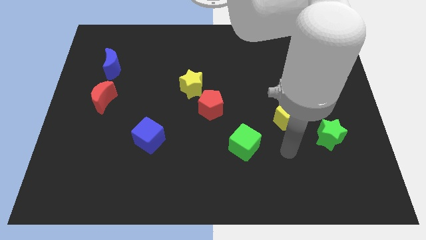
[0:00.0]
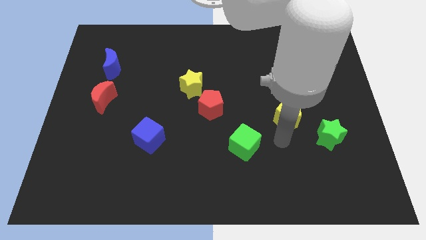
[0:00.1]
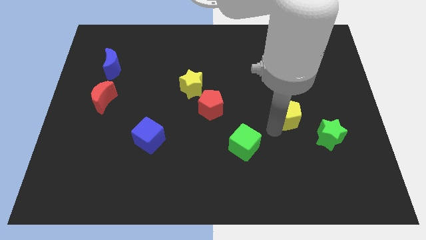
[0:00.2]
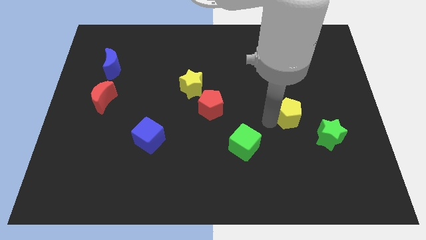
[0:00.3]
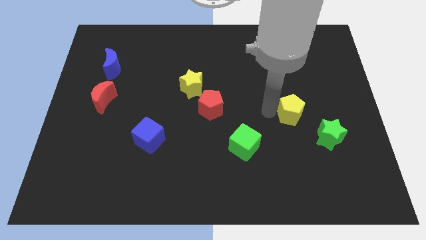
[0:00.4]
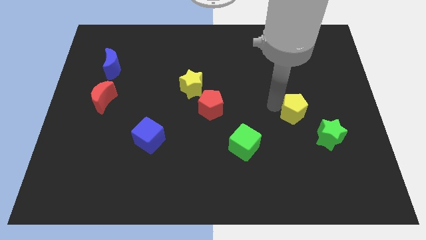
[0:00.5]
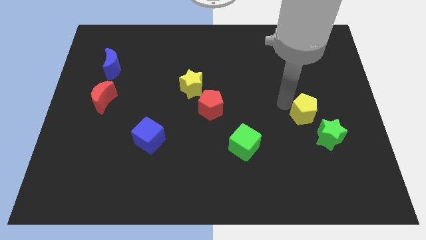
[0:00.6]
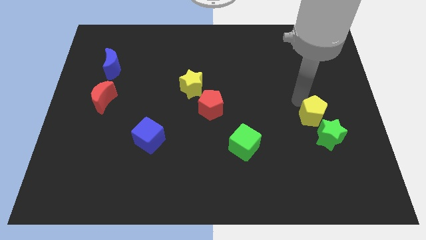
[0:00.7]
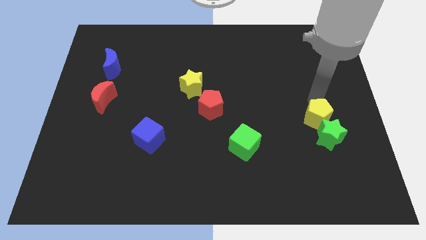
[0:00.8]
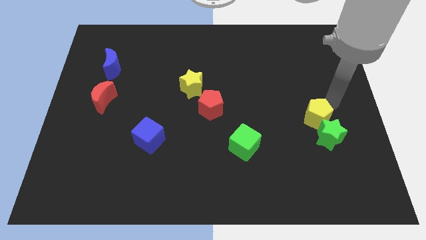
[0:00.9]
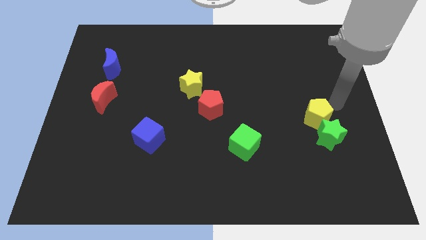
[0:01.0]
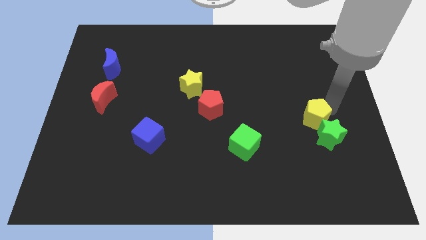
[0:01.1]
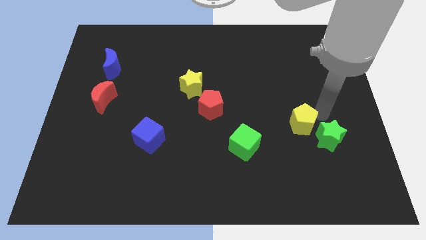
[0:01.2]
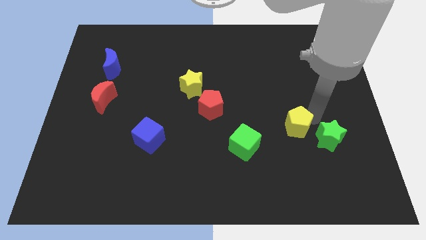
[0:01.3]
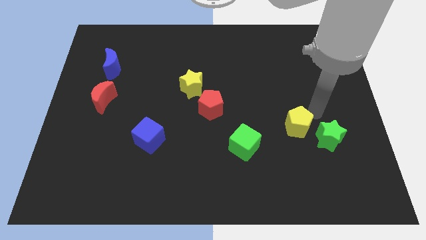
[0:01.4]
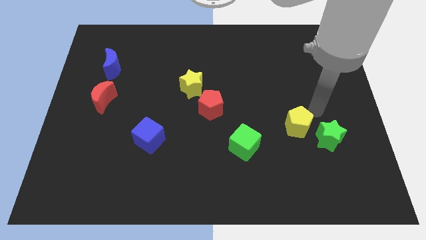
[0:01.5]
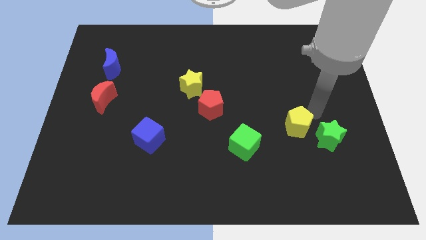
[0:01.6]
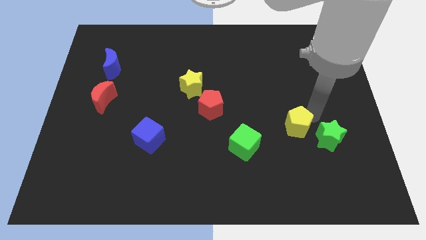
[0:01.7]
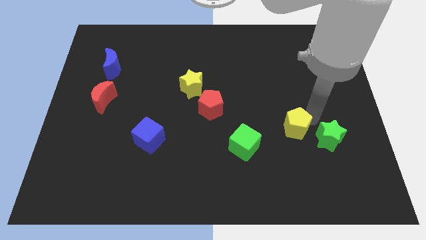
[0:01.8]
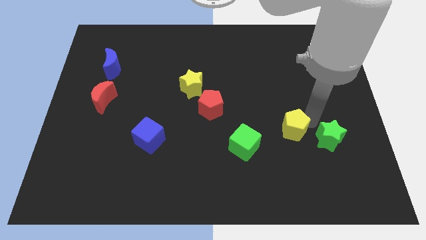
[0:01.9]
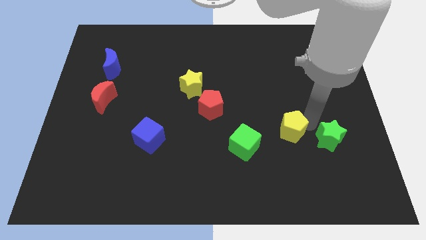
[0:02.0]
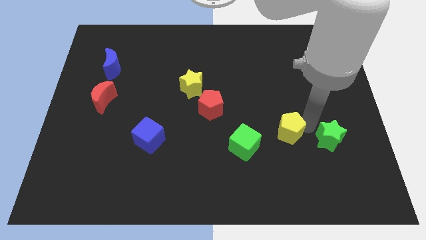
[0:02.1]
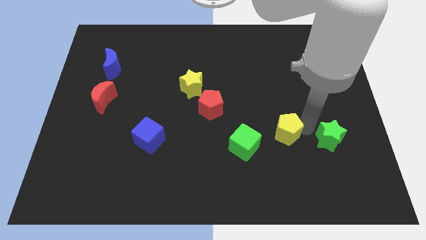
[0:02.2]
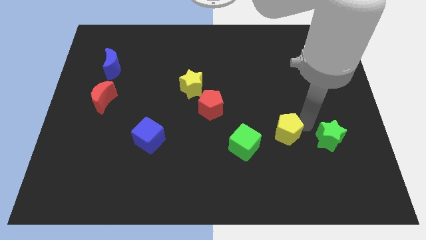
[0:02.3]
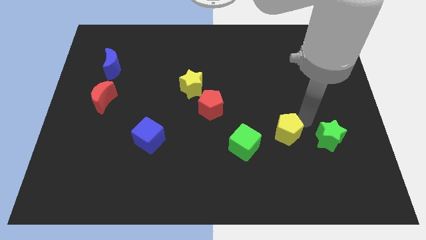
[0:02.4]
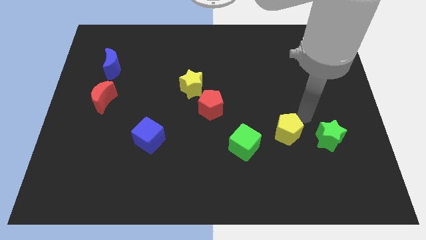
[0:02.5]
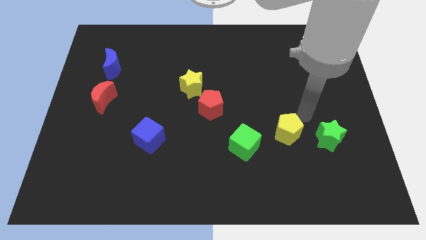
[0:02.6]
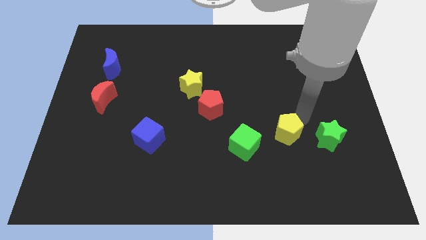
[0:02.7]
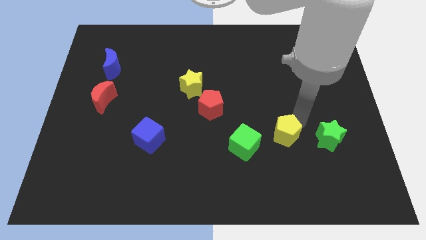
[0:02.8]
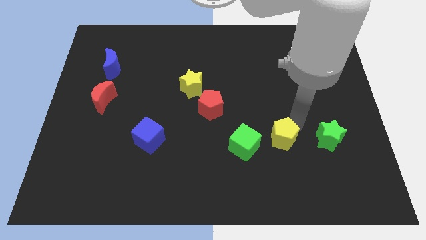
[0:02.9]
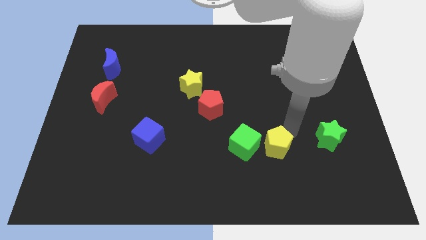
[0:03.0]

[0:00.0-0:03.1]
slightly slide the yellow pentagon downwards and then left

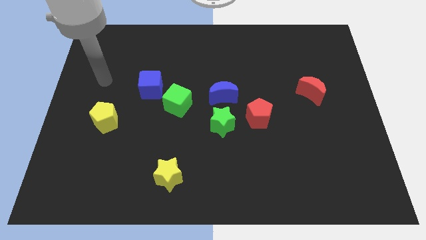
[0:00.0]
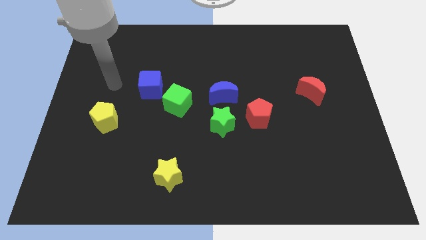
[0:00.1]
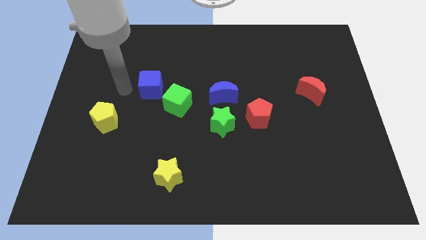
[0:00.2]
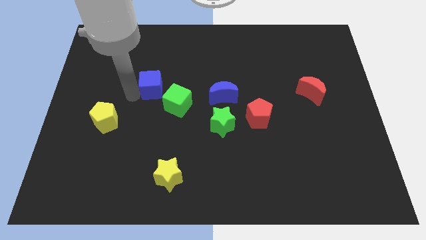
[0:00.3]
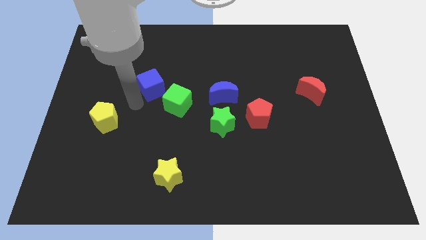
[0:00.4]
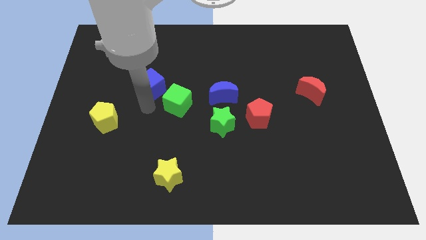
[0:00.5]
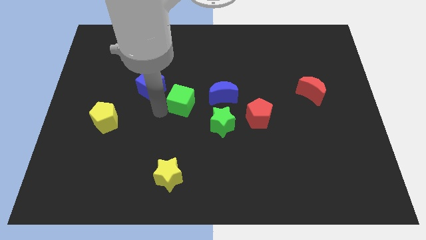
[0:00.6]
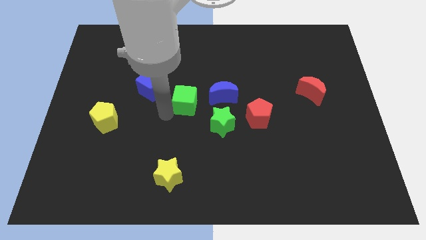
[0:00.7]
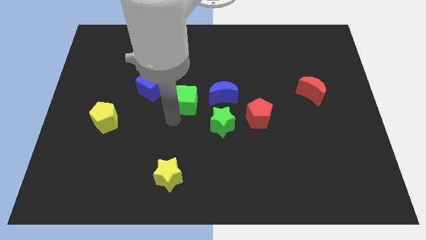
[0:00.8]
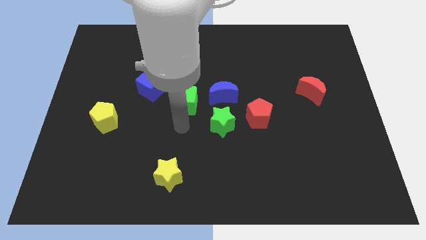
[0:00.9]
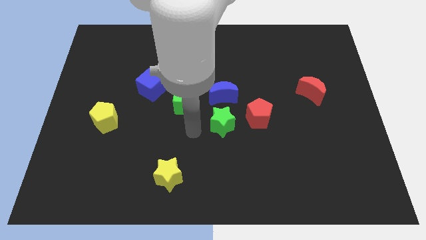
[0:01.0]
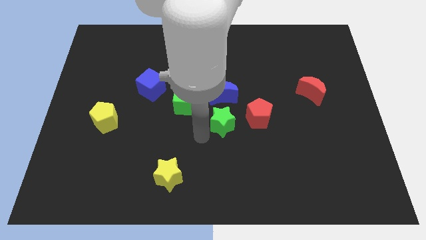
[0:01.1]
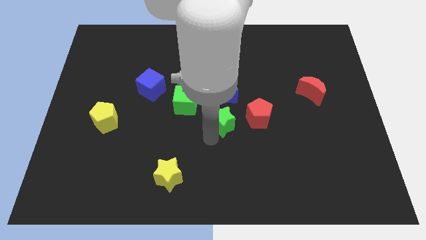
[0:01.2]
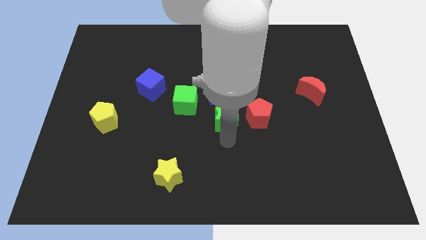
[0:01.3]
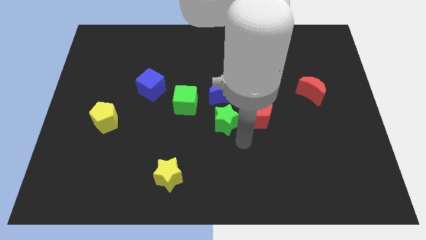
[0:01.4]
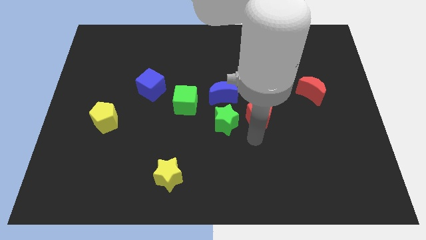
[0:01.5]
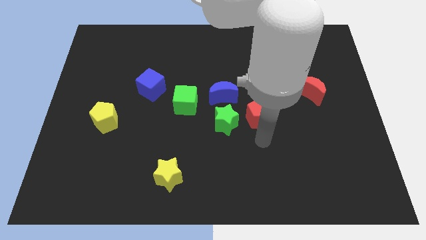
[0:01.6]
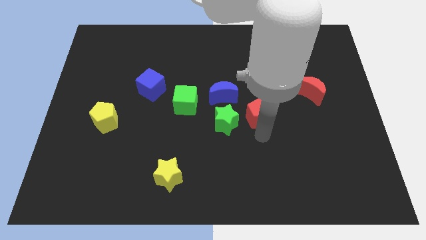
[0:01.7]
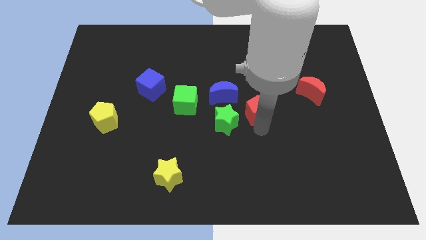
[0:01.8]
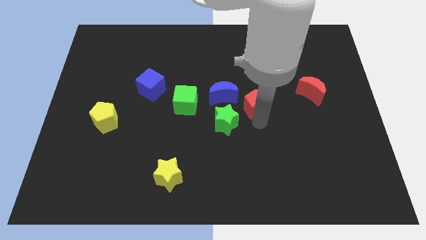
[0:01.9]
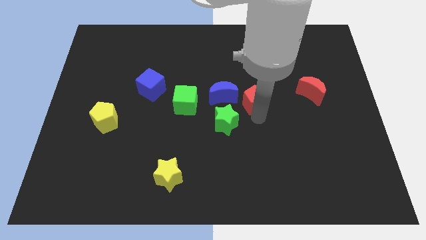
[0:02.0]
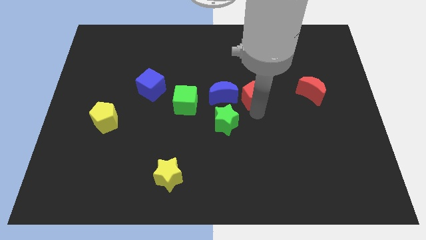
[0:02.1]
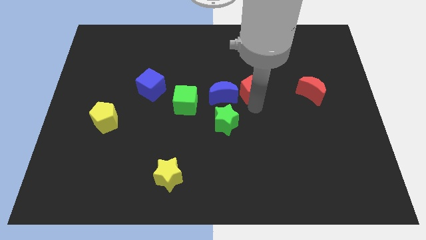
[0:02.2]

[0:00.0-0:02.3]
push the red pentagon up somewhat

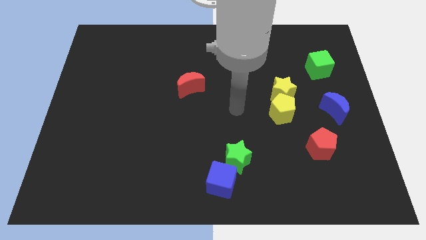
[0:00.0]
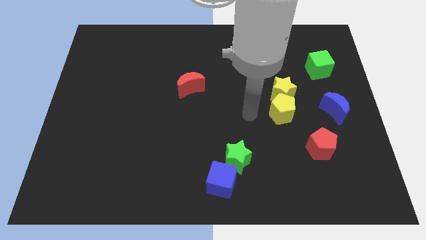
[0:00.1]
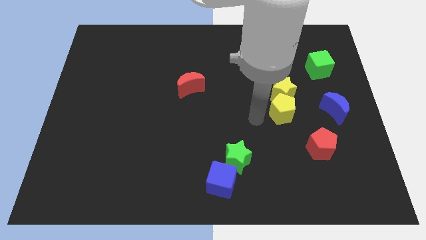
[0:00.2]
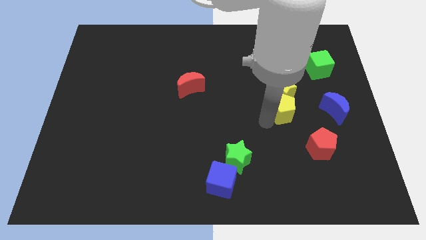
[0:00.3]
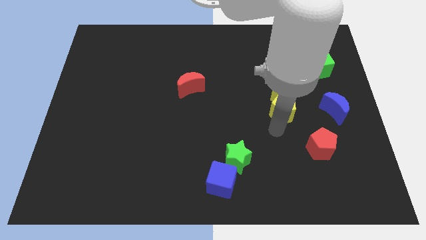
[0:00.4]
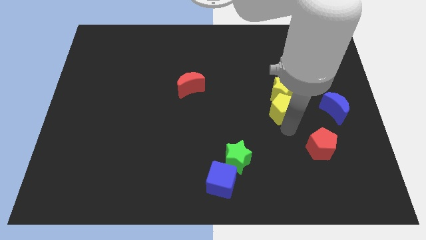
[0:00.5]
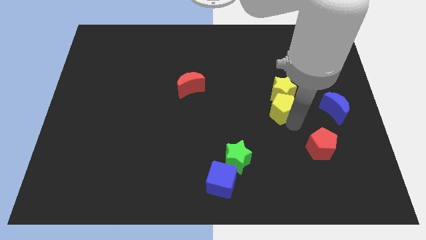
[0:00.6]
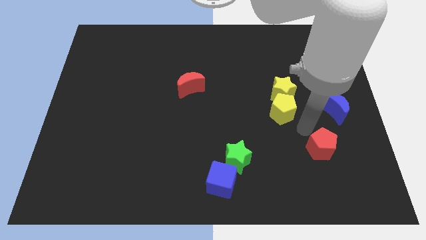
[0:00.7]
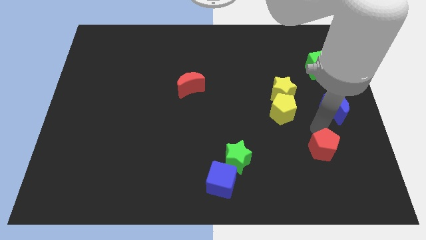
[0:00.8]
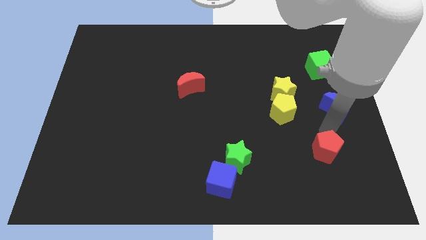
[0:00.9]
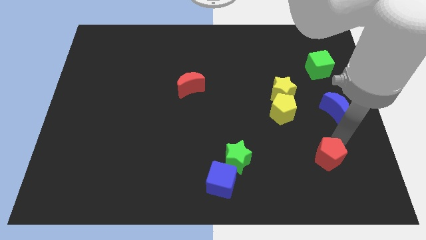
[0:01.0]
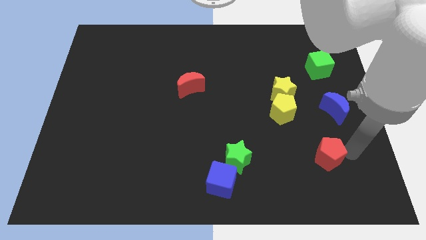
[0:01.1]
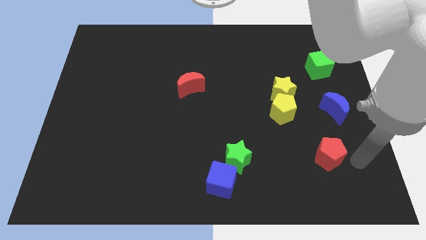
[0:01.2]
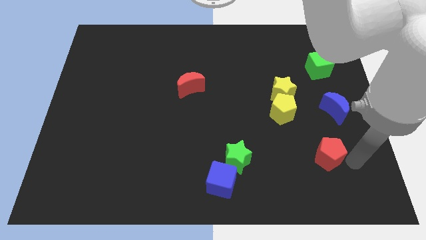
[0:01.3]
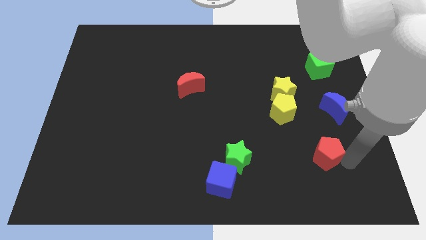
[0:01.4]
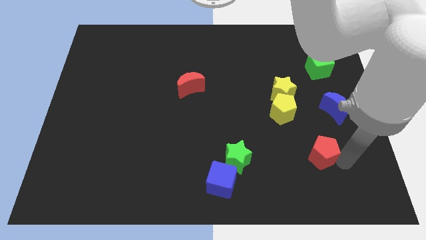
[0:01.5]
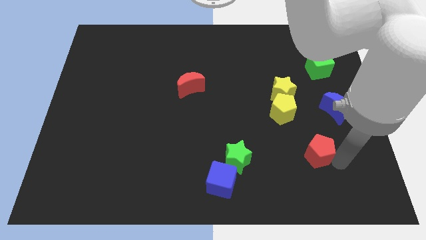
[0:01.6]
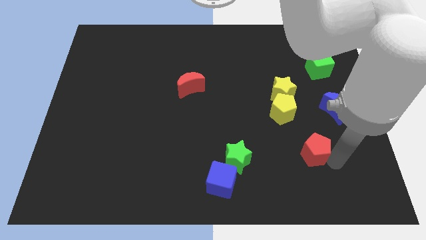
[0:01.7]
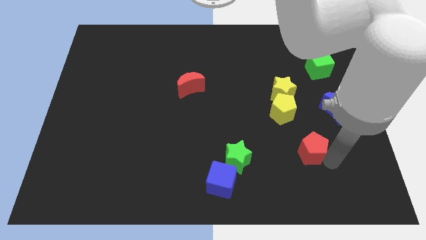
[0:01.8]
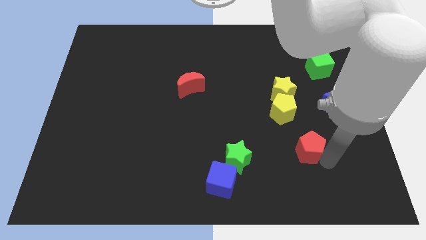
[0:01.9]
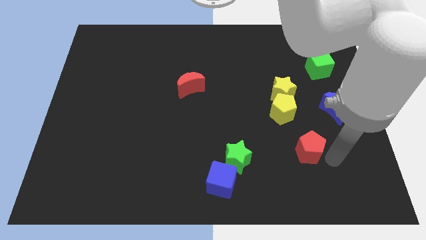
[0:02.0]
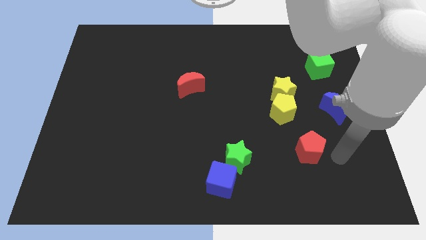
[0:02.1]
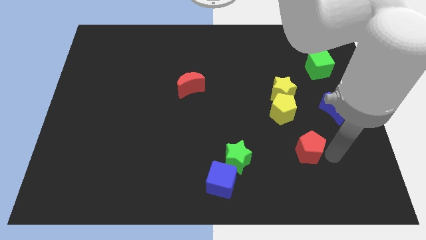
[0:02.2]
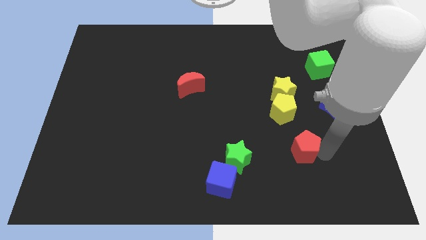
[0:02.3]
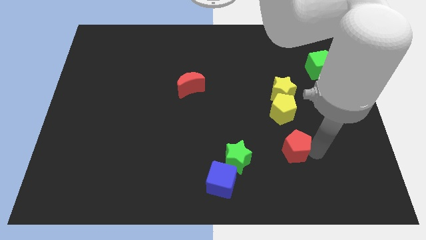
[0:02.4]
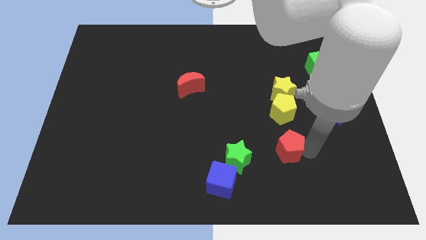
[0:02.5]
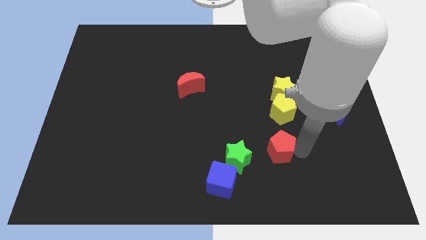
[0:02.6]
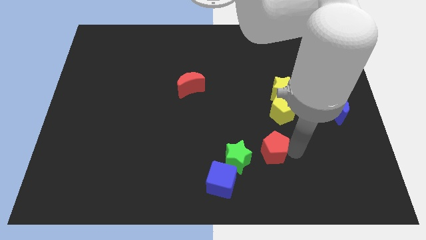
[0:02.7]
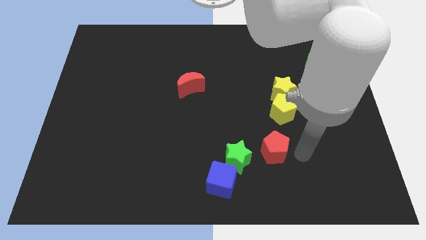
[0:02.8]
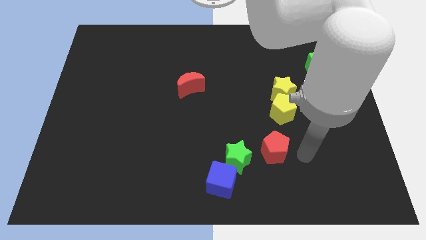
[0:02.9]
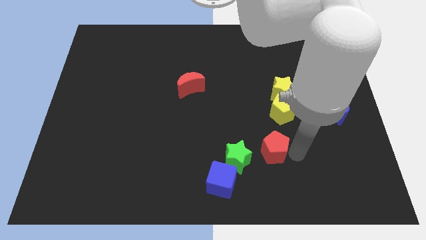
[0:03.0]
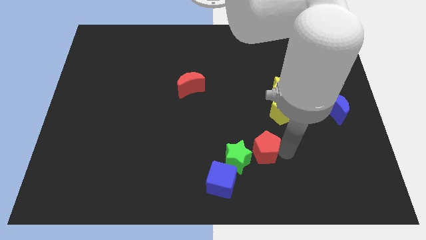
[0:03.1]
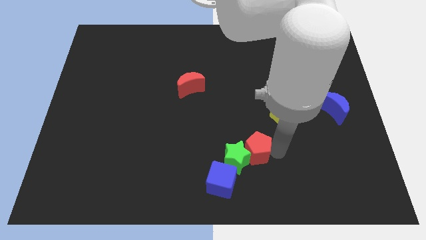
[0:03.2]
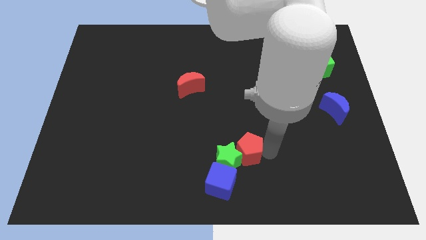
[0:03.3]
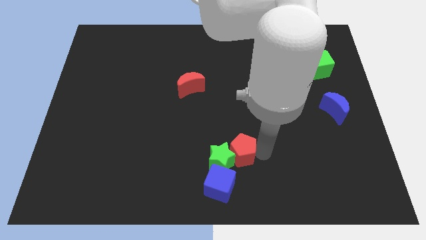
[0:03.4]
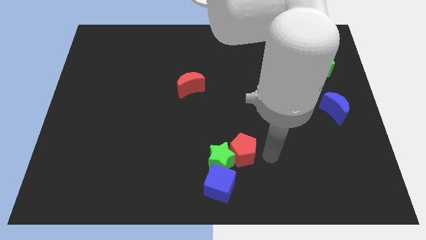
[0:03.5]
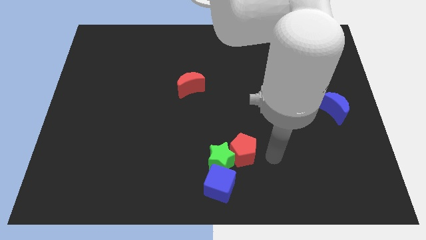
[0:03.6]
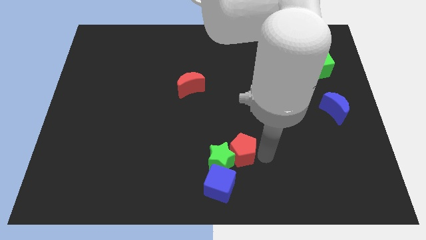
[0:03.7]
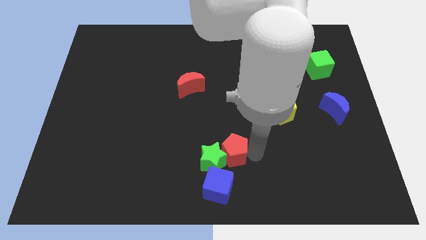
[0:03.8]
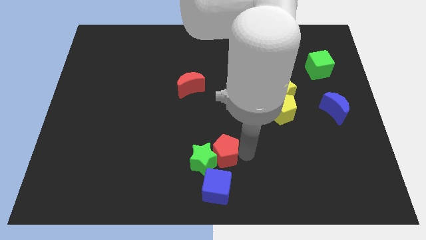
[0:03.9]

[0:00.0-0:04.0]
move the red pentagon left
